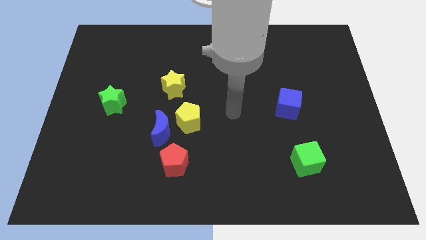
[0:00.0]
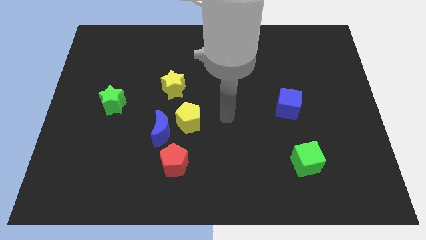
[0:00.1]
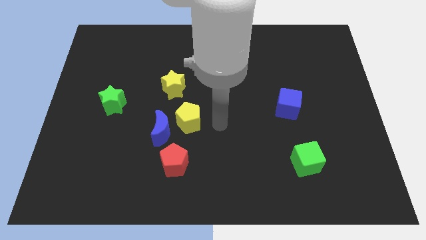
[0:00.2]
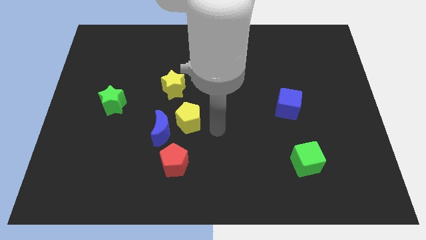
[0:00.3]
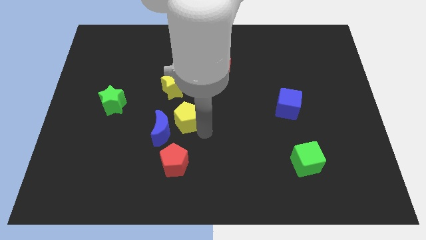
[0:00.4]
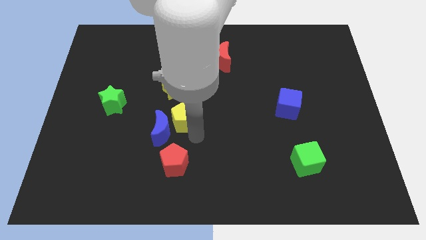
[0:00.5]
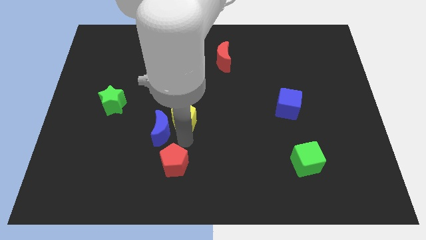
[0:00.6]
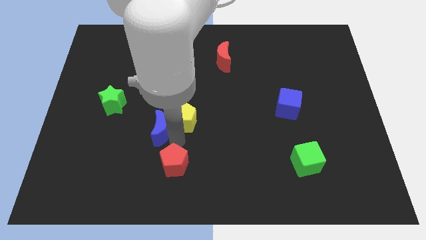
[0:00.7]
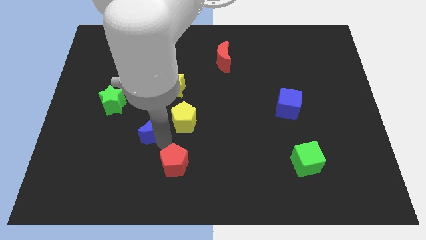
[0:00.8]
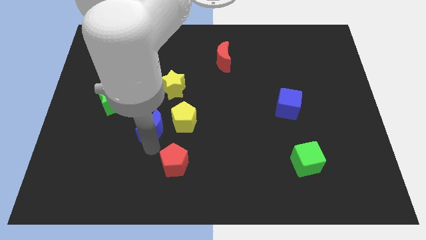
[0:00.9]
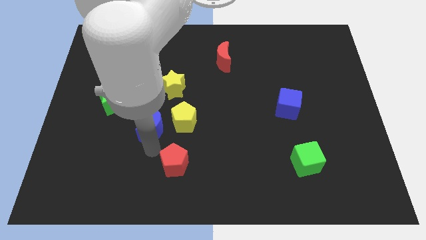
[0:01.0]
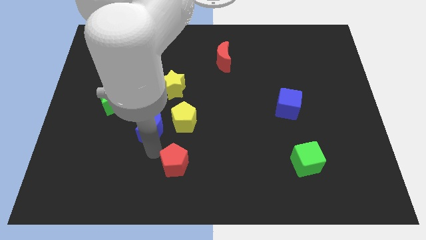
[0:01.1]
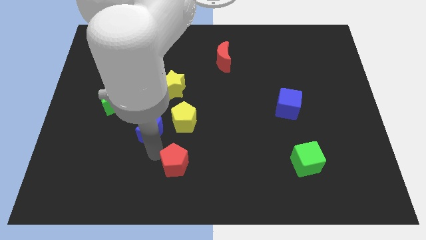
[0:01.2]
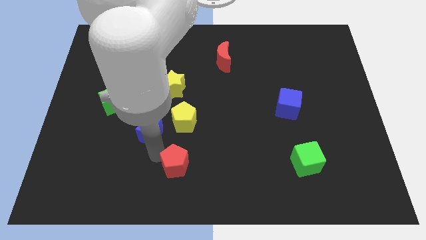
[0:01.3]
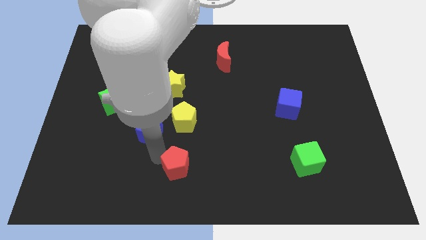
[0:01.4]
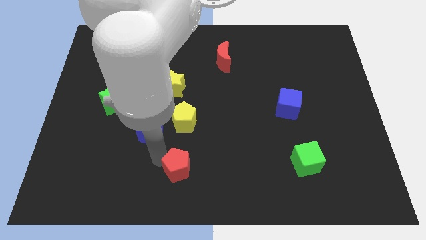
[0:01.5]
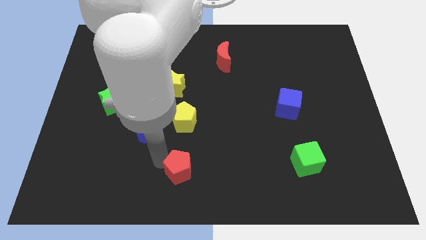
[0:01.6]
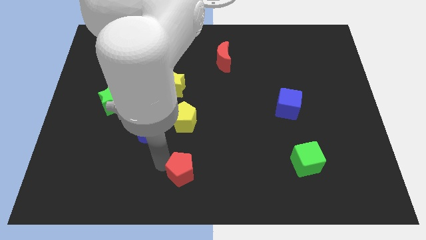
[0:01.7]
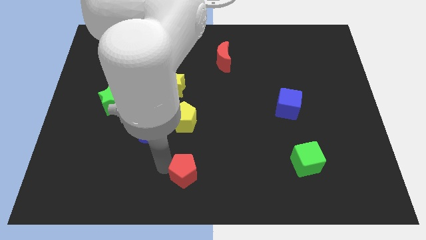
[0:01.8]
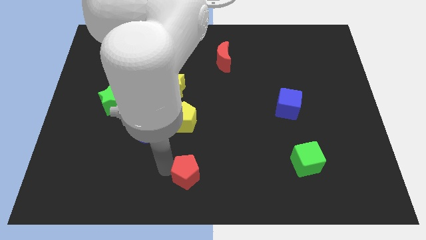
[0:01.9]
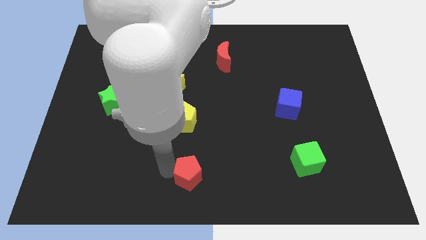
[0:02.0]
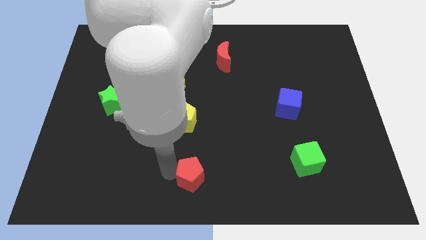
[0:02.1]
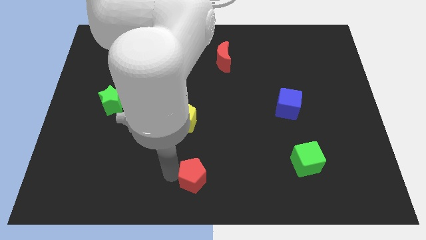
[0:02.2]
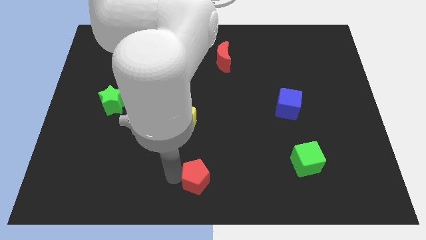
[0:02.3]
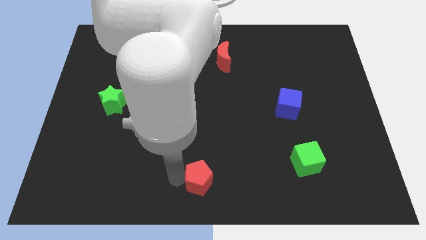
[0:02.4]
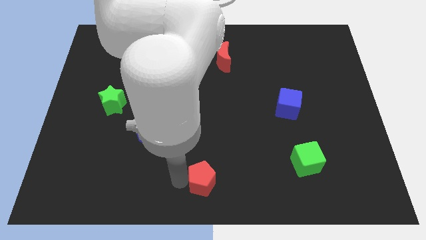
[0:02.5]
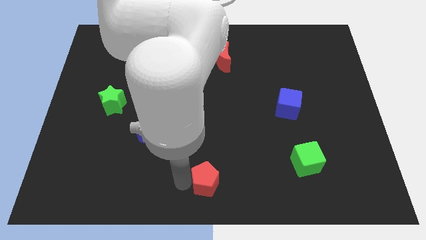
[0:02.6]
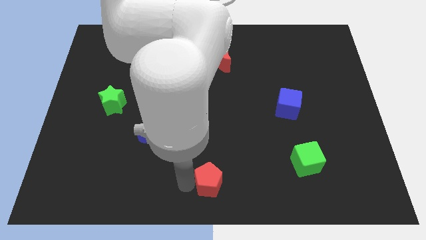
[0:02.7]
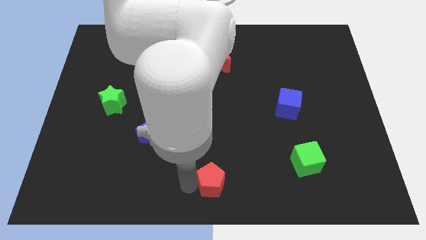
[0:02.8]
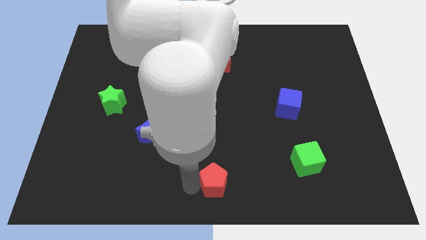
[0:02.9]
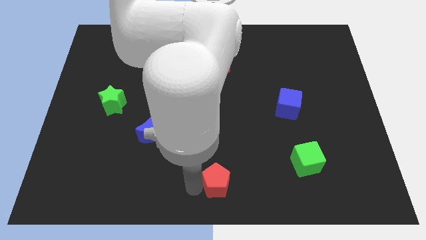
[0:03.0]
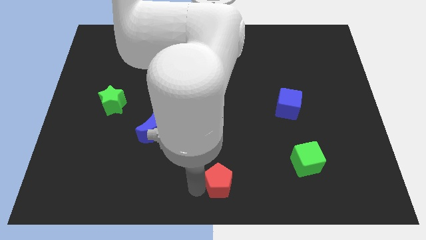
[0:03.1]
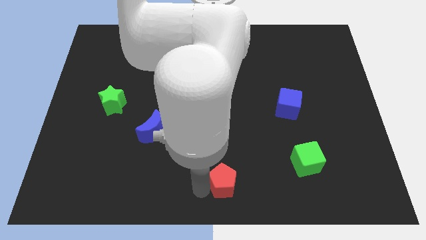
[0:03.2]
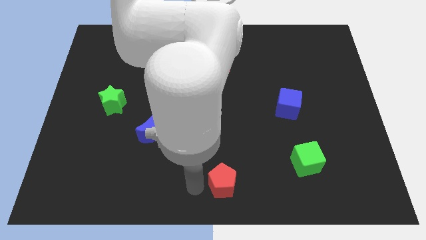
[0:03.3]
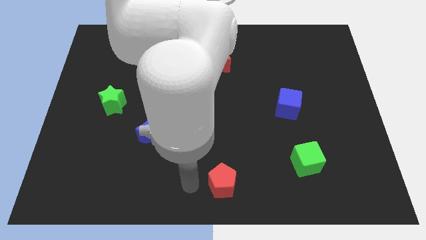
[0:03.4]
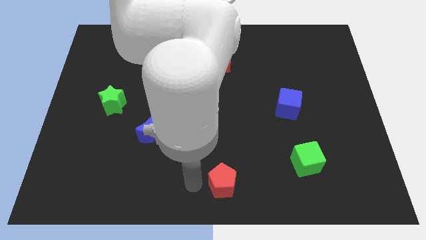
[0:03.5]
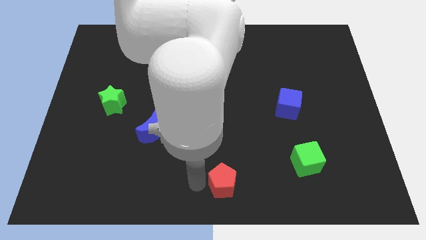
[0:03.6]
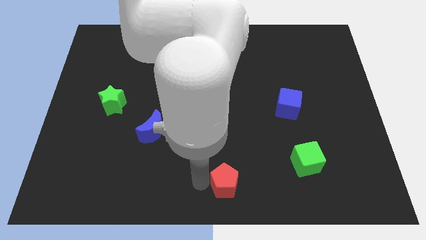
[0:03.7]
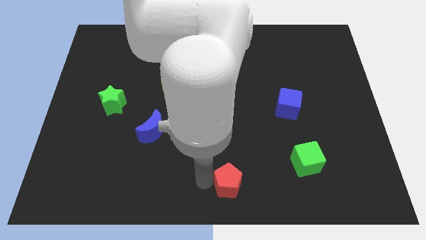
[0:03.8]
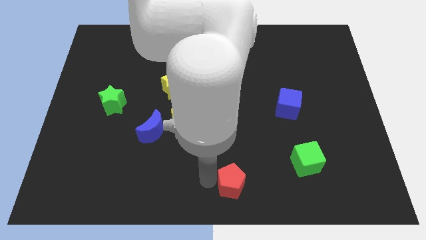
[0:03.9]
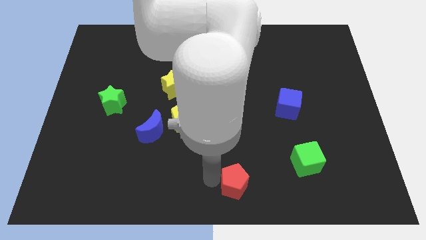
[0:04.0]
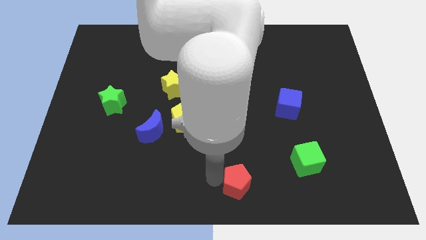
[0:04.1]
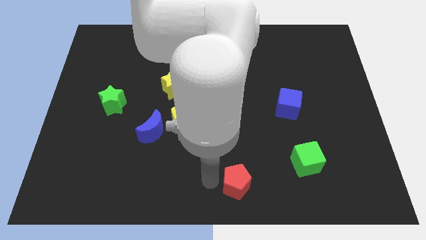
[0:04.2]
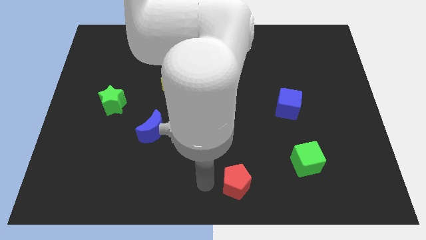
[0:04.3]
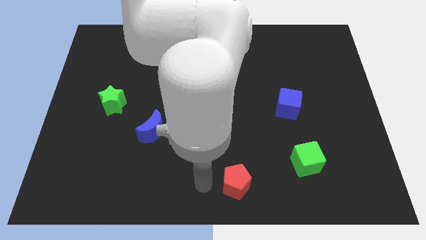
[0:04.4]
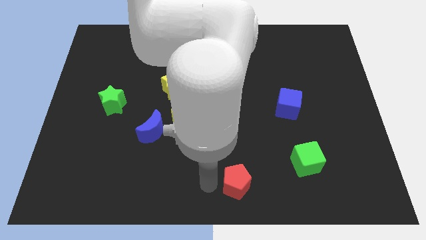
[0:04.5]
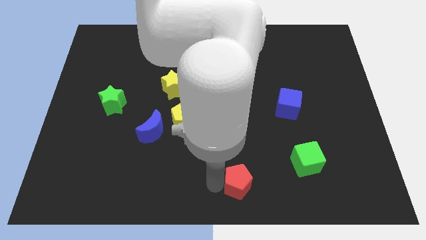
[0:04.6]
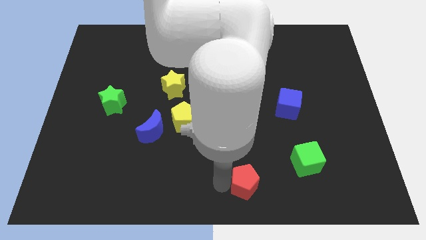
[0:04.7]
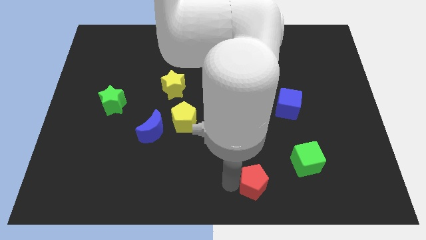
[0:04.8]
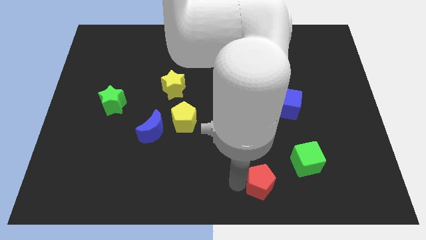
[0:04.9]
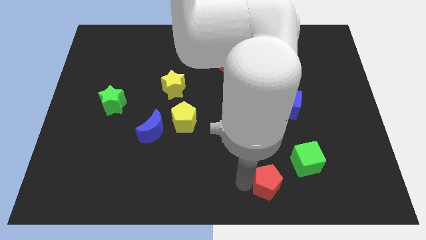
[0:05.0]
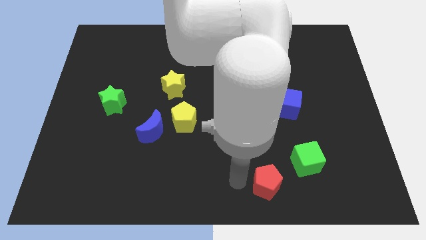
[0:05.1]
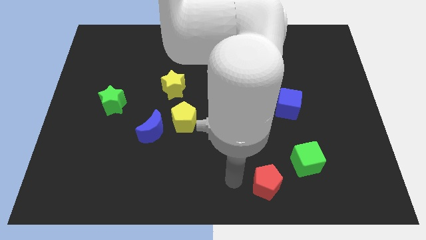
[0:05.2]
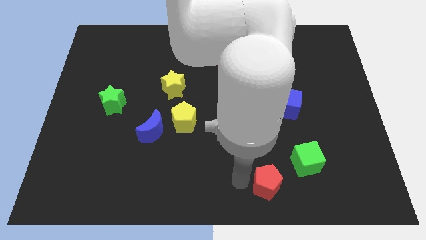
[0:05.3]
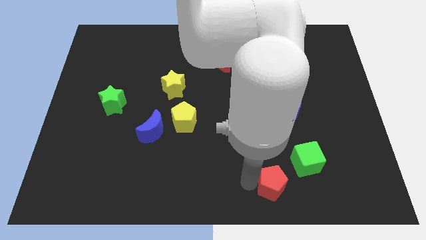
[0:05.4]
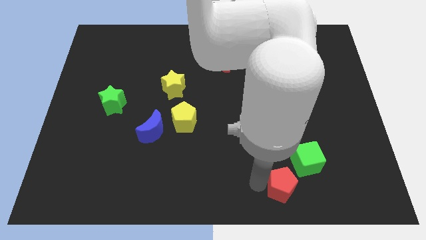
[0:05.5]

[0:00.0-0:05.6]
move the red pentagon to the right

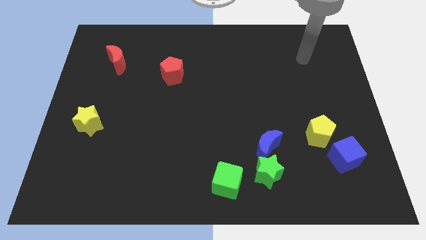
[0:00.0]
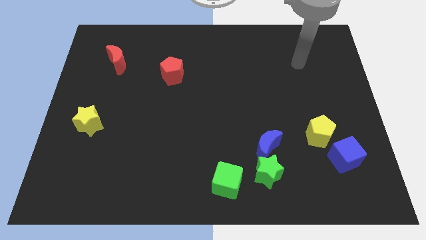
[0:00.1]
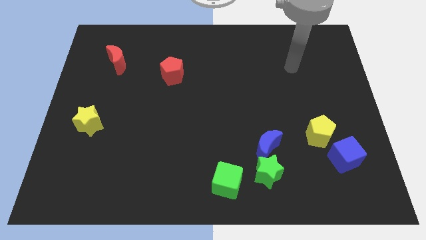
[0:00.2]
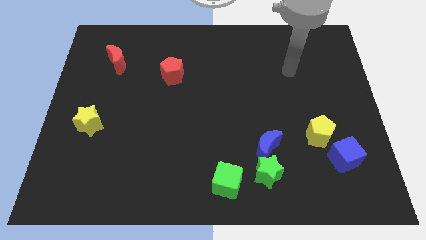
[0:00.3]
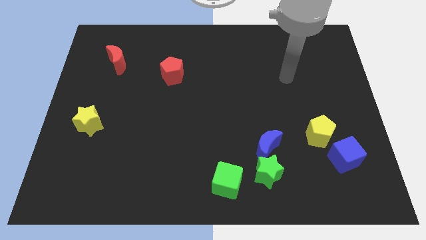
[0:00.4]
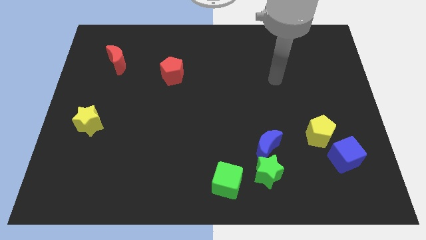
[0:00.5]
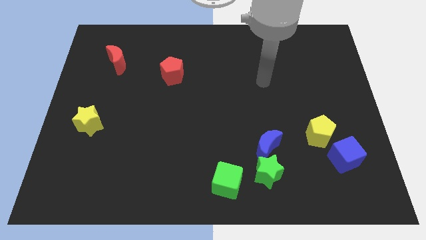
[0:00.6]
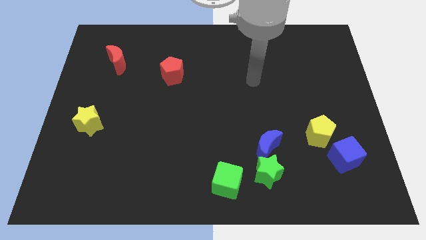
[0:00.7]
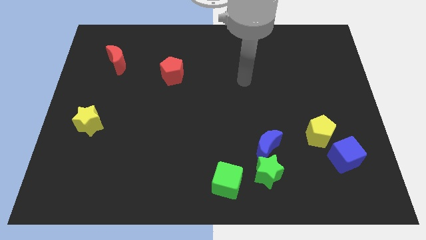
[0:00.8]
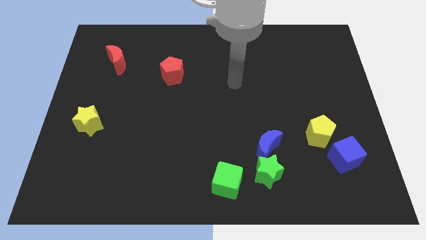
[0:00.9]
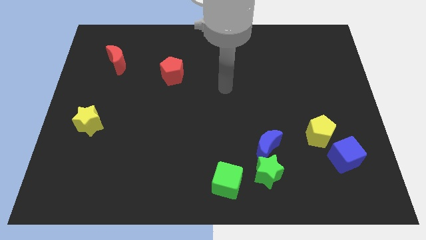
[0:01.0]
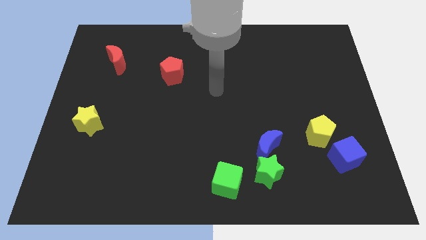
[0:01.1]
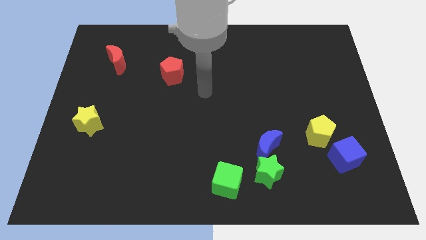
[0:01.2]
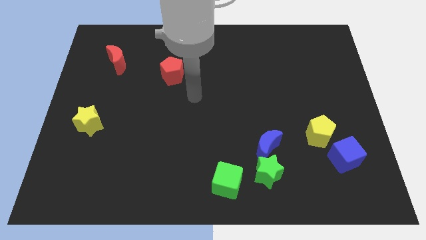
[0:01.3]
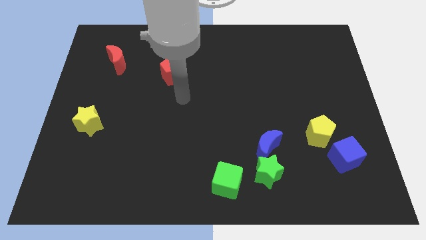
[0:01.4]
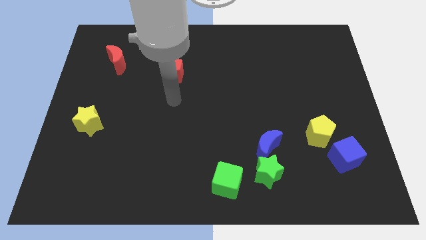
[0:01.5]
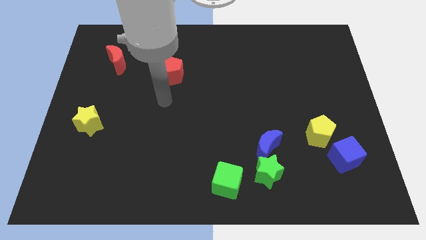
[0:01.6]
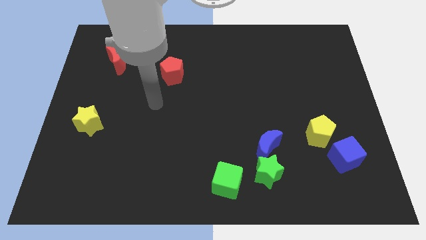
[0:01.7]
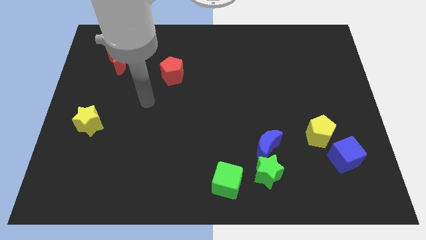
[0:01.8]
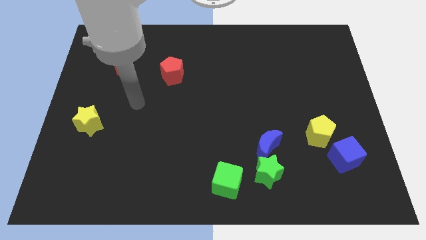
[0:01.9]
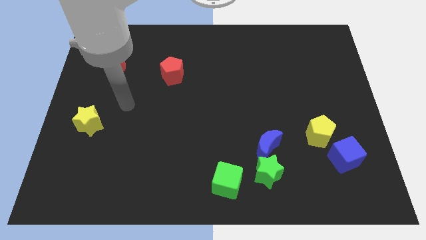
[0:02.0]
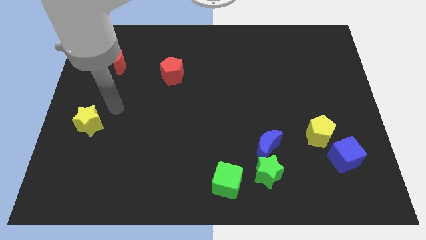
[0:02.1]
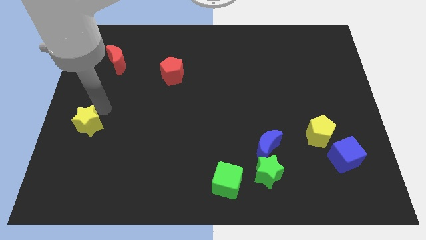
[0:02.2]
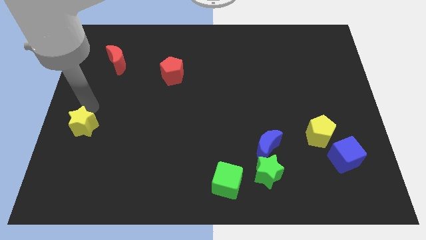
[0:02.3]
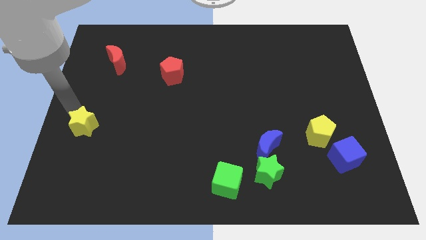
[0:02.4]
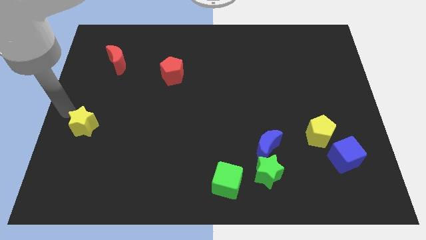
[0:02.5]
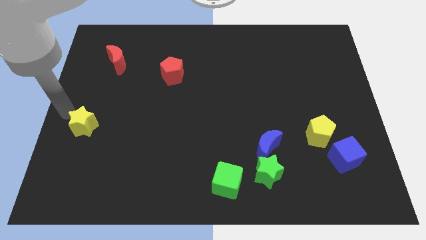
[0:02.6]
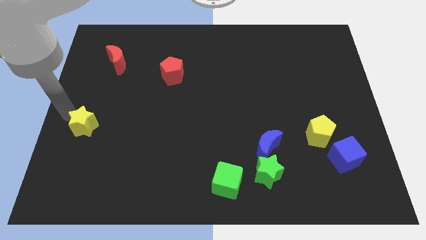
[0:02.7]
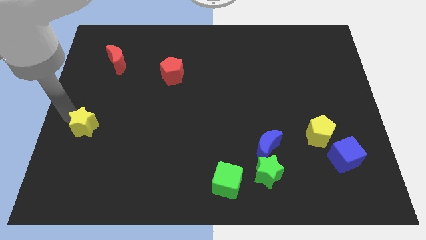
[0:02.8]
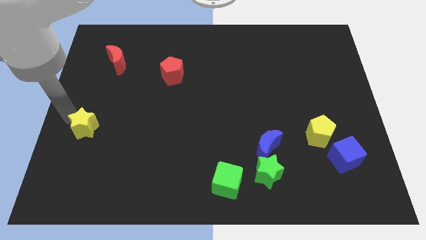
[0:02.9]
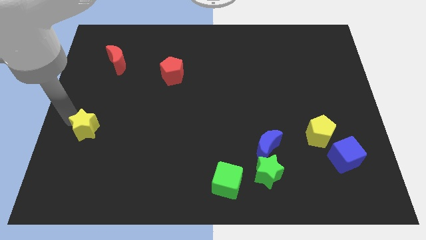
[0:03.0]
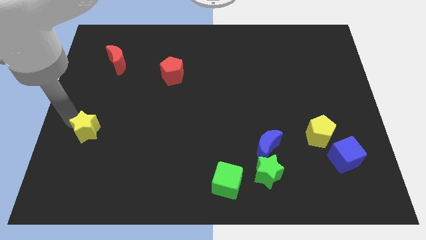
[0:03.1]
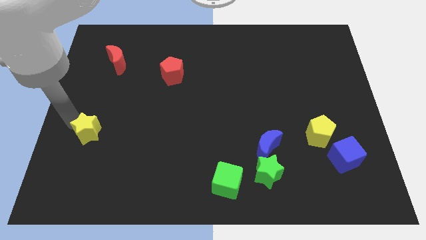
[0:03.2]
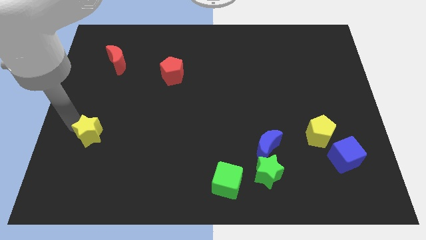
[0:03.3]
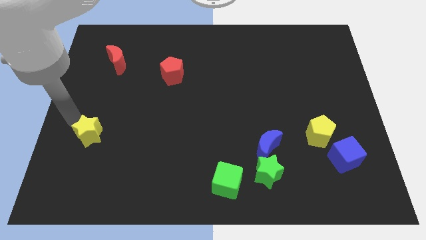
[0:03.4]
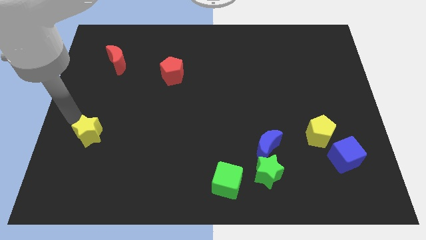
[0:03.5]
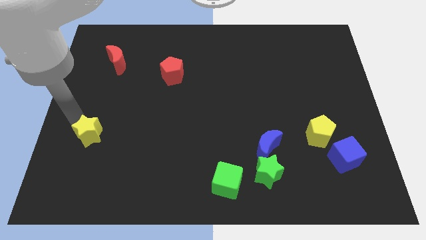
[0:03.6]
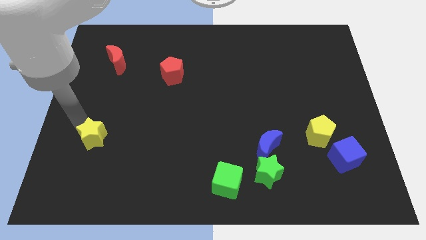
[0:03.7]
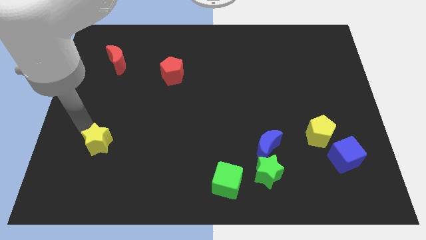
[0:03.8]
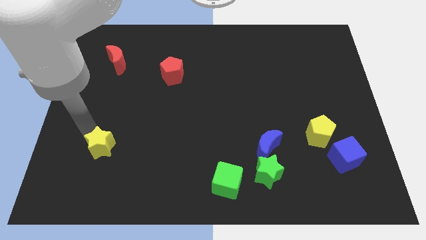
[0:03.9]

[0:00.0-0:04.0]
slide the yellow star a little diagonally downwards and right
